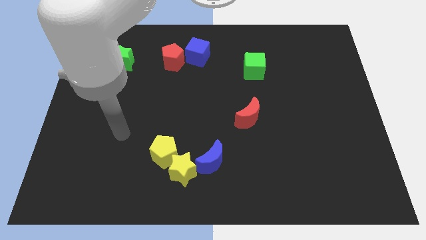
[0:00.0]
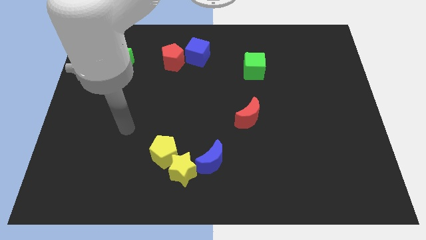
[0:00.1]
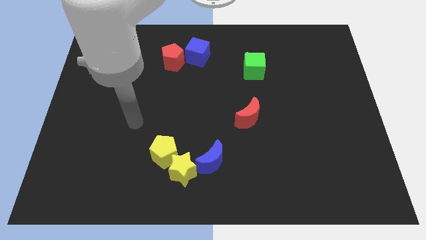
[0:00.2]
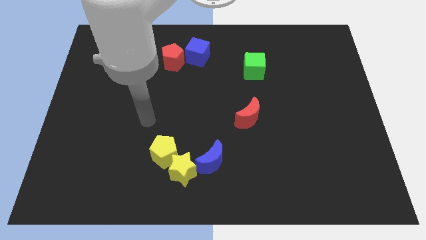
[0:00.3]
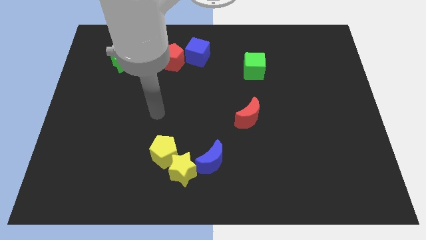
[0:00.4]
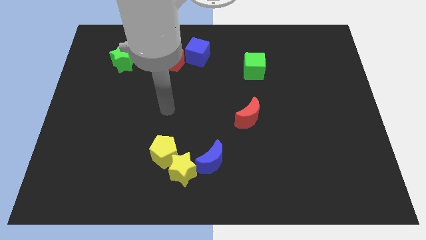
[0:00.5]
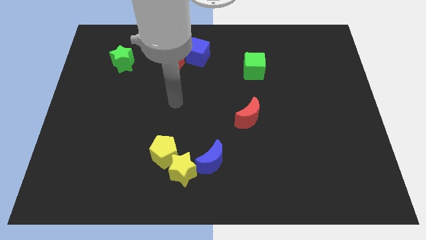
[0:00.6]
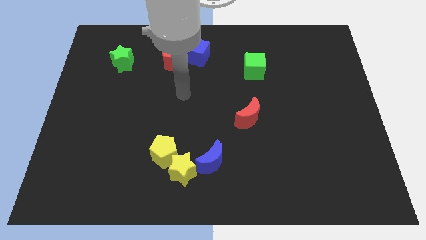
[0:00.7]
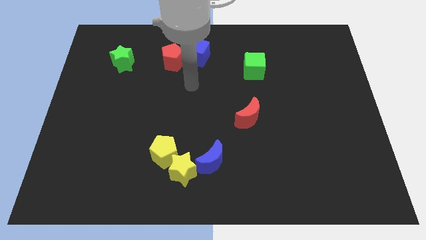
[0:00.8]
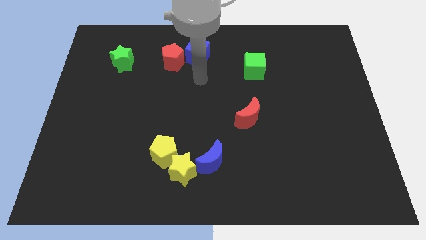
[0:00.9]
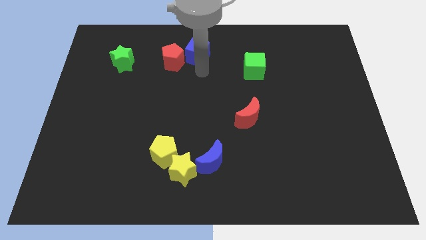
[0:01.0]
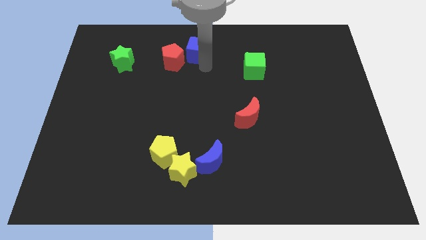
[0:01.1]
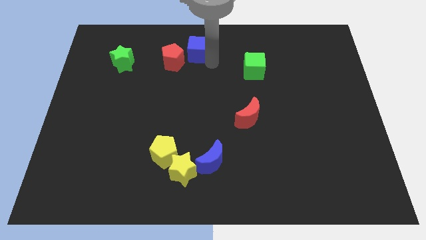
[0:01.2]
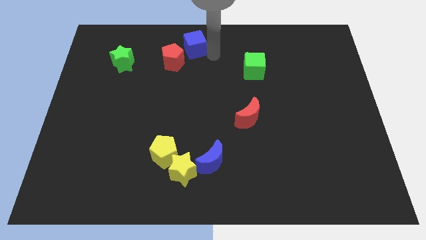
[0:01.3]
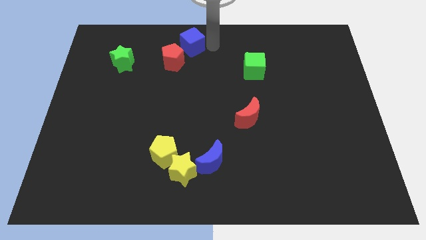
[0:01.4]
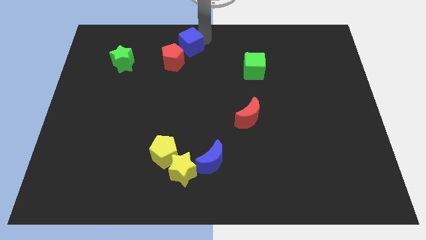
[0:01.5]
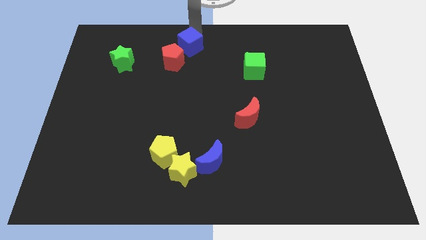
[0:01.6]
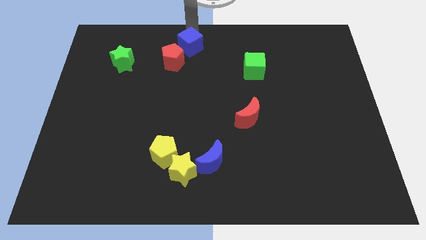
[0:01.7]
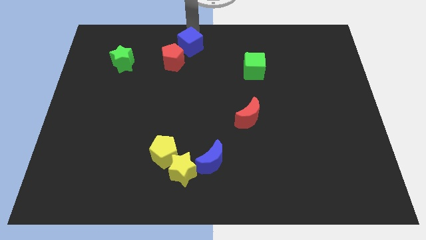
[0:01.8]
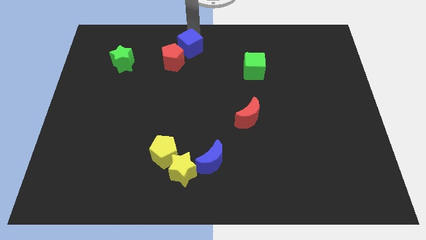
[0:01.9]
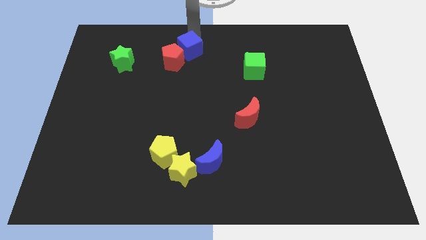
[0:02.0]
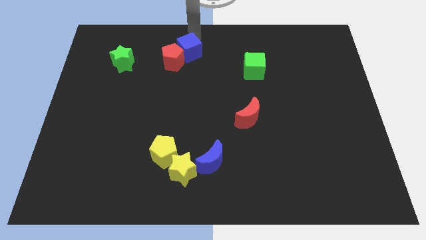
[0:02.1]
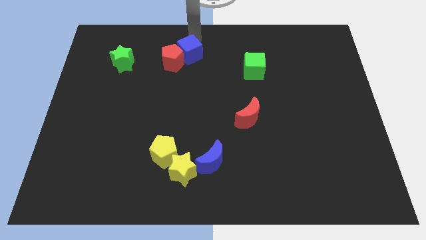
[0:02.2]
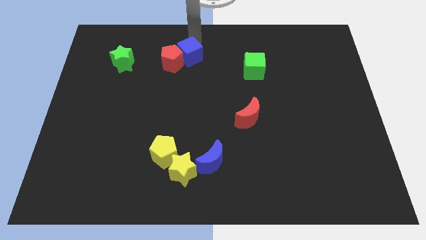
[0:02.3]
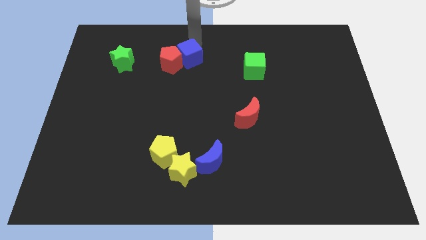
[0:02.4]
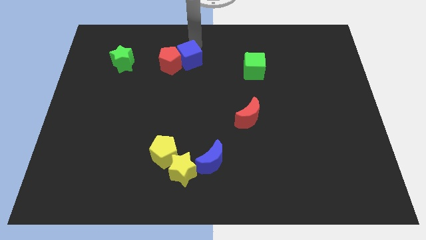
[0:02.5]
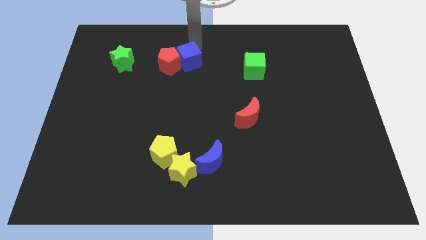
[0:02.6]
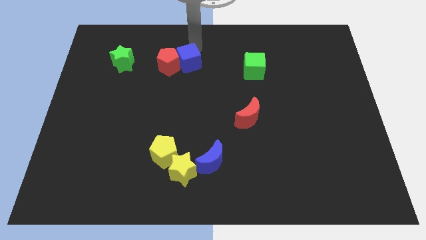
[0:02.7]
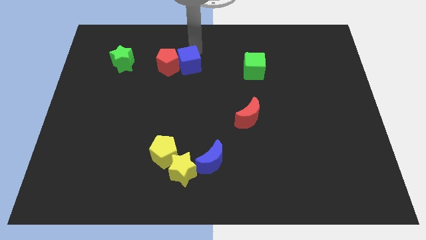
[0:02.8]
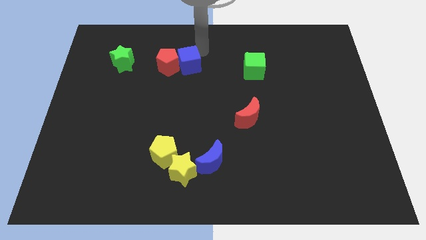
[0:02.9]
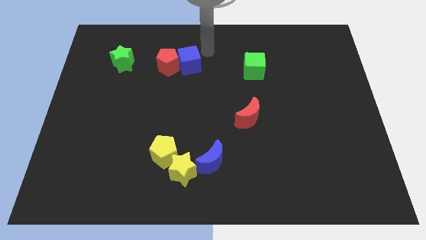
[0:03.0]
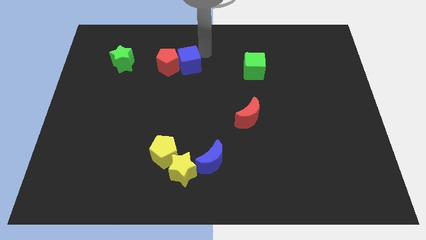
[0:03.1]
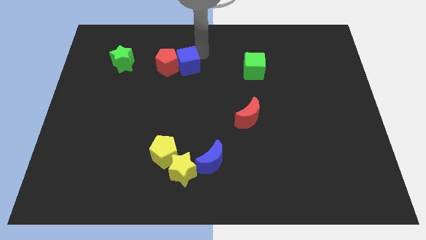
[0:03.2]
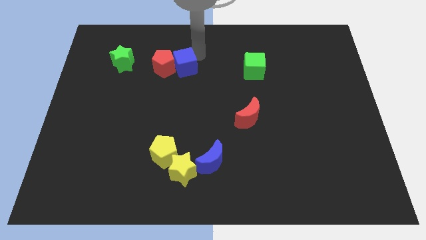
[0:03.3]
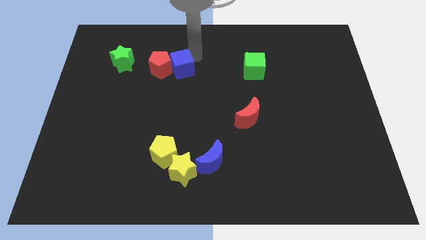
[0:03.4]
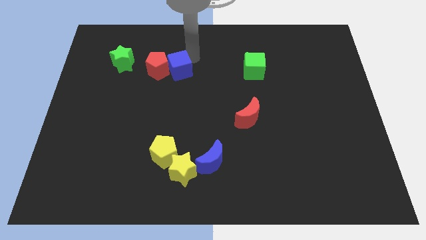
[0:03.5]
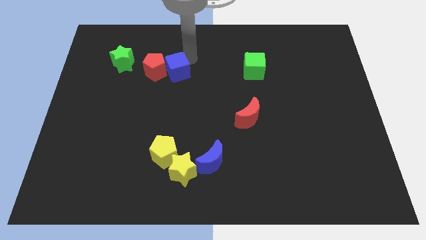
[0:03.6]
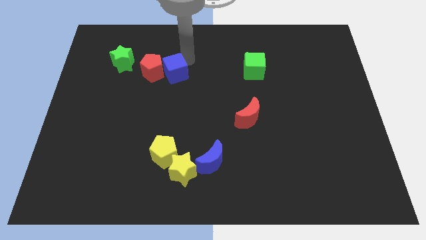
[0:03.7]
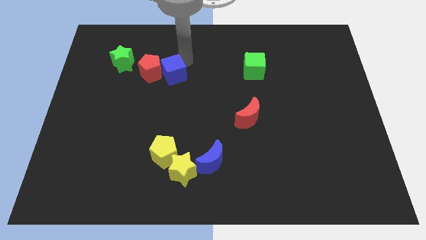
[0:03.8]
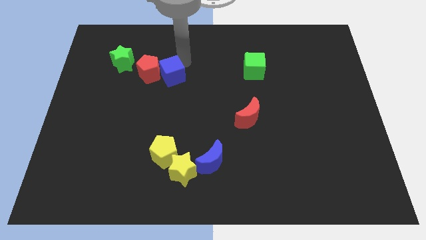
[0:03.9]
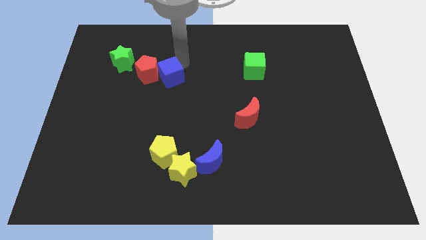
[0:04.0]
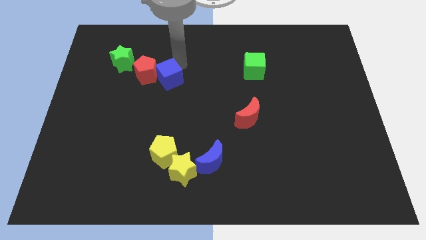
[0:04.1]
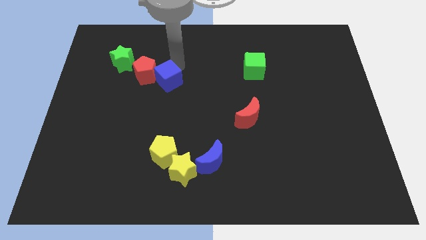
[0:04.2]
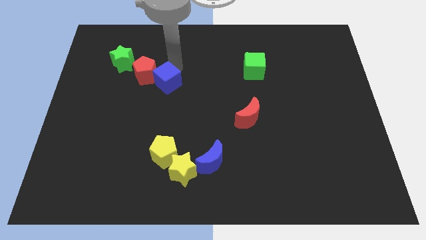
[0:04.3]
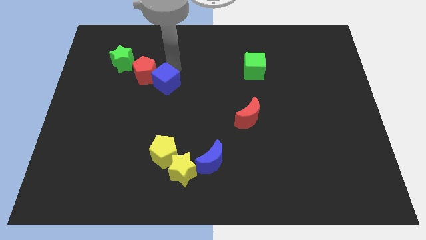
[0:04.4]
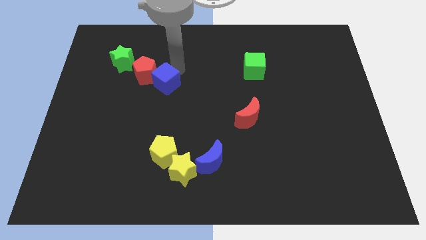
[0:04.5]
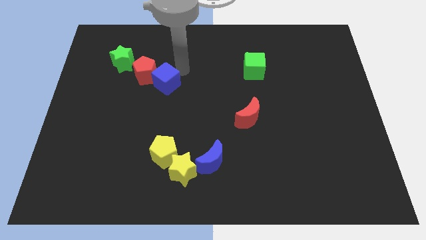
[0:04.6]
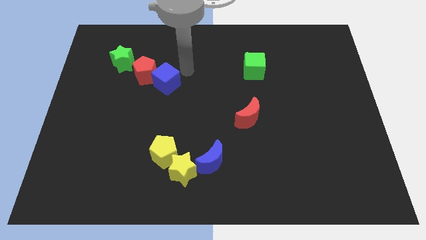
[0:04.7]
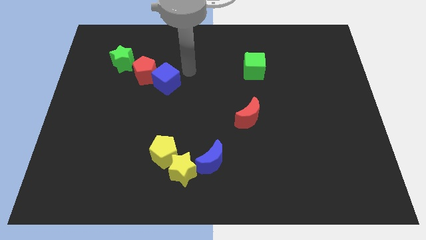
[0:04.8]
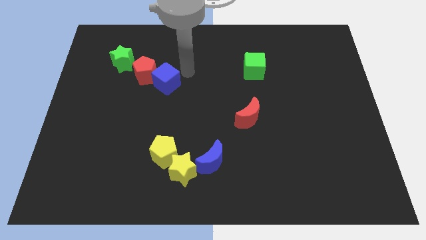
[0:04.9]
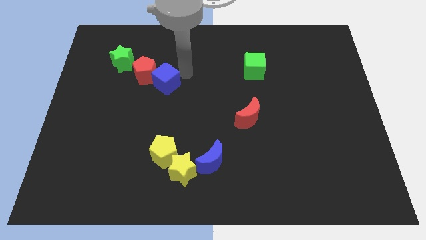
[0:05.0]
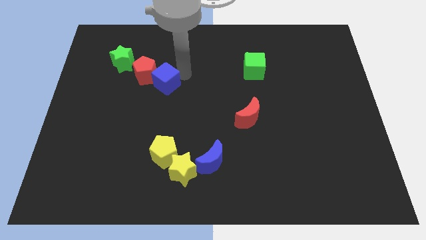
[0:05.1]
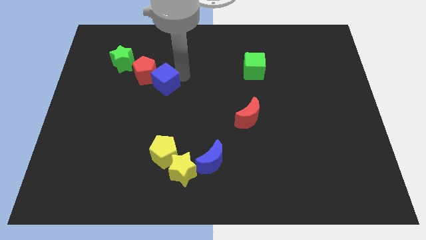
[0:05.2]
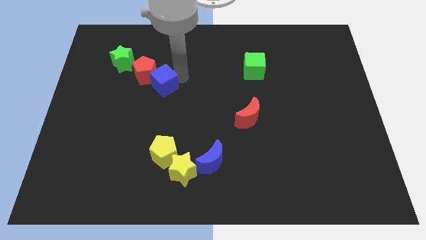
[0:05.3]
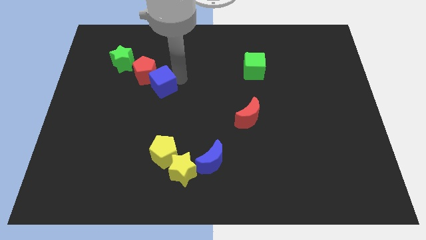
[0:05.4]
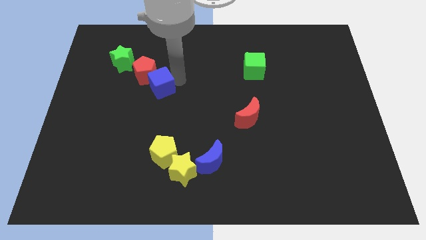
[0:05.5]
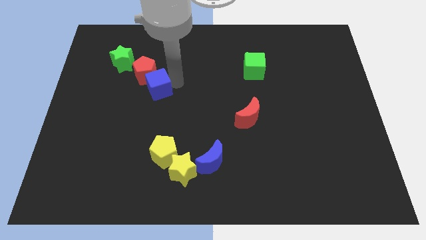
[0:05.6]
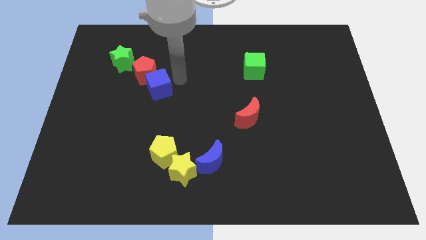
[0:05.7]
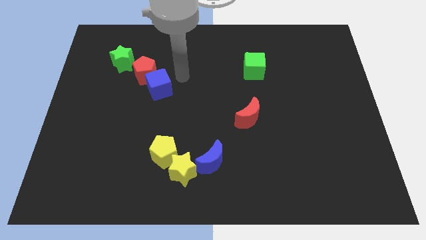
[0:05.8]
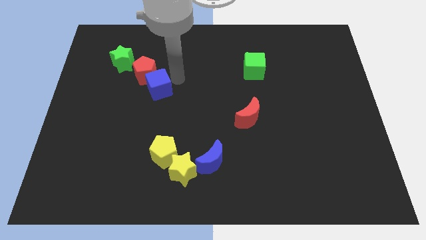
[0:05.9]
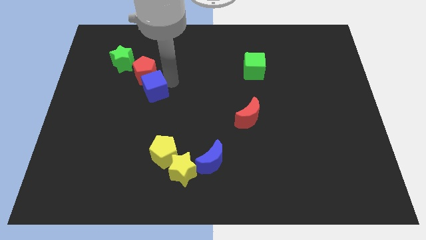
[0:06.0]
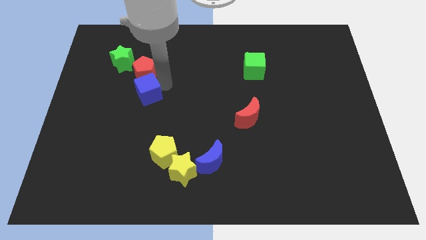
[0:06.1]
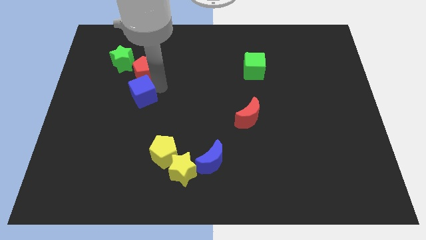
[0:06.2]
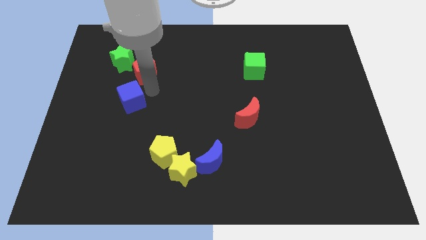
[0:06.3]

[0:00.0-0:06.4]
move the blue cube down and to the left diagonally

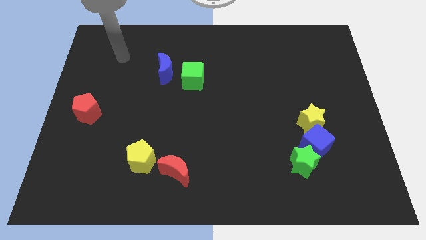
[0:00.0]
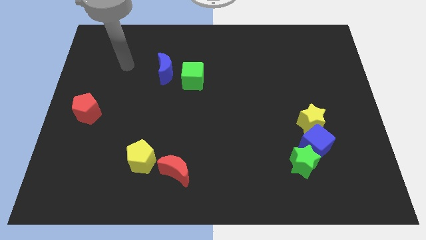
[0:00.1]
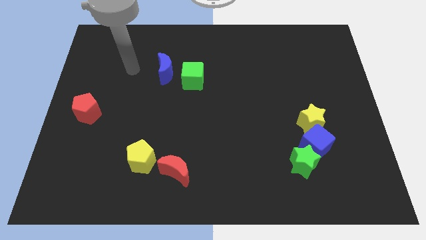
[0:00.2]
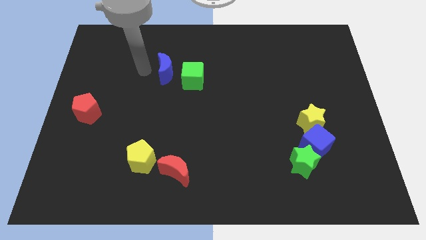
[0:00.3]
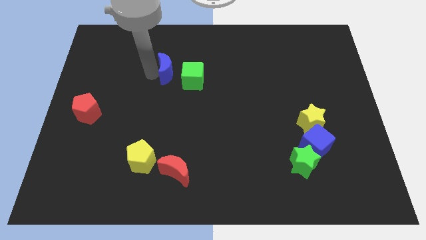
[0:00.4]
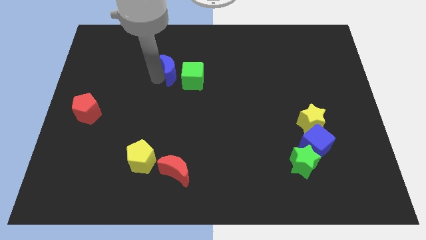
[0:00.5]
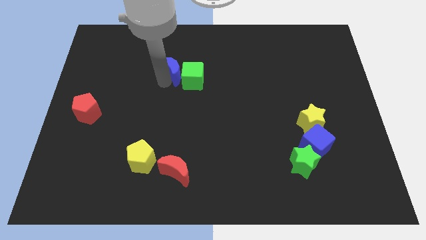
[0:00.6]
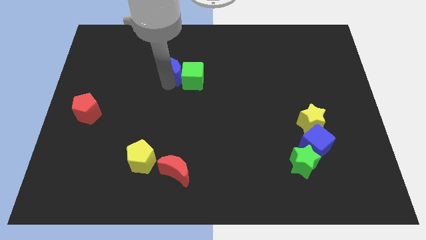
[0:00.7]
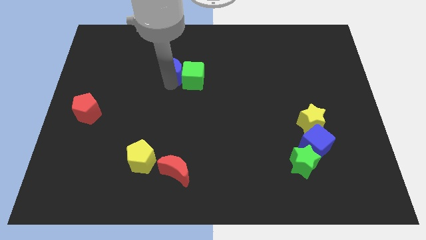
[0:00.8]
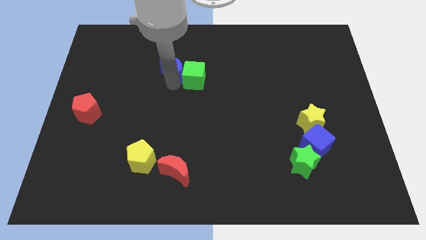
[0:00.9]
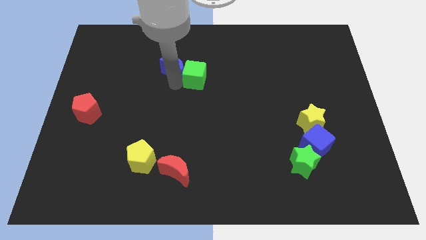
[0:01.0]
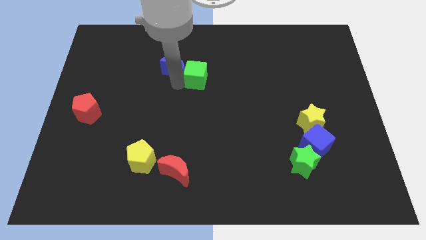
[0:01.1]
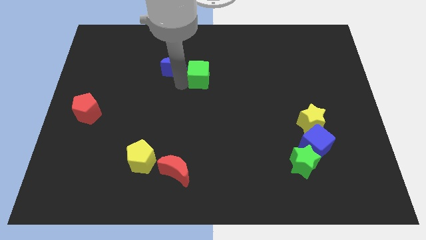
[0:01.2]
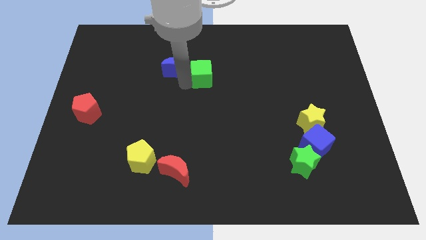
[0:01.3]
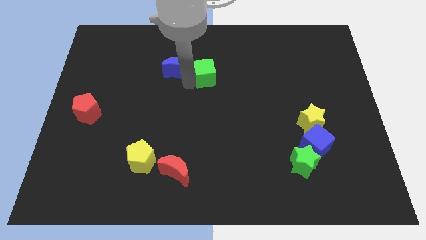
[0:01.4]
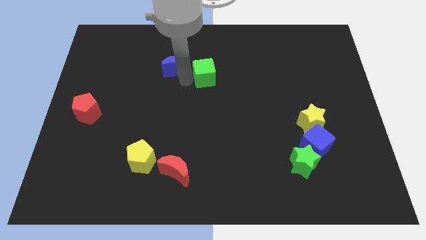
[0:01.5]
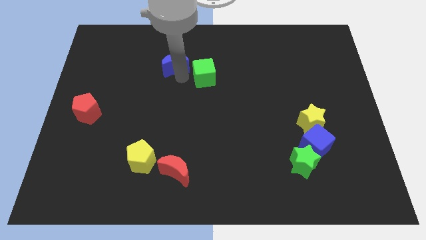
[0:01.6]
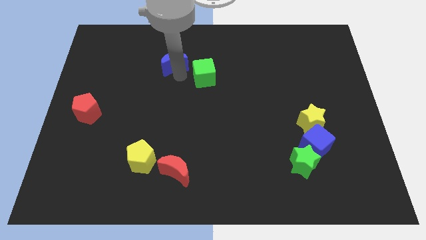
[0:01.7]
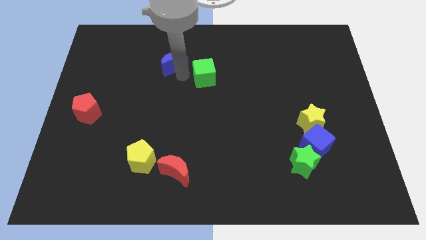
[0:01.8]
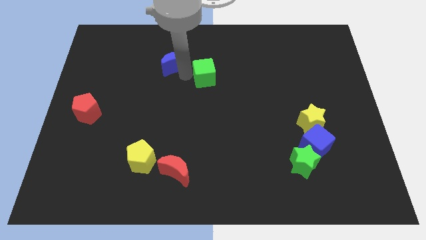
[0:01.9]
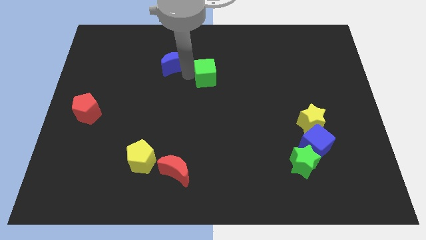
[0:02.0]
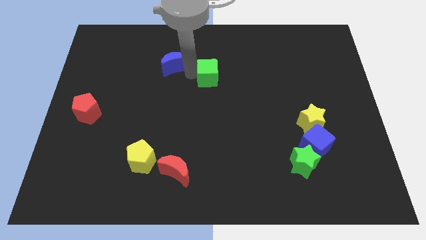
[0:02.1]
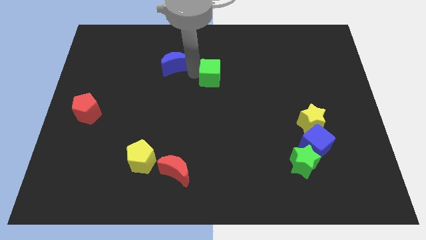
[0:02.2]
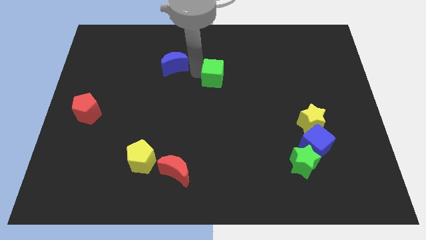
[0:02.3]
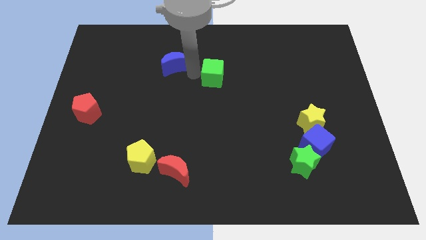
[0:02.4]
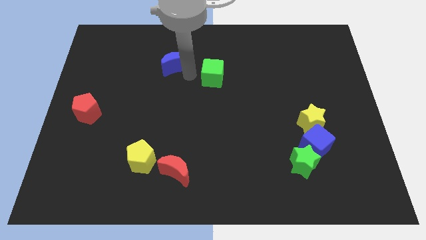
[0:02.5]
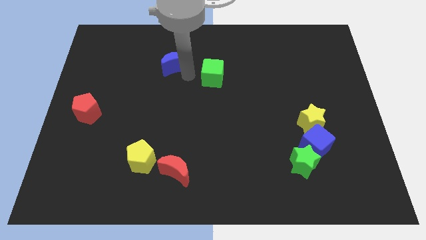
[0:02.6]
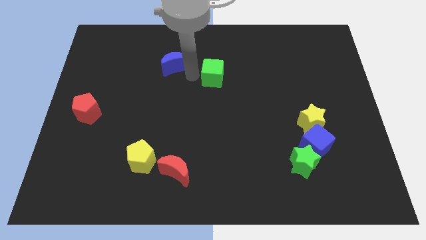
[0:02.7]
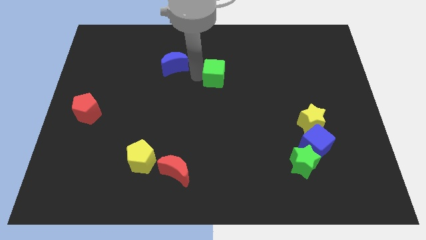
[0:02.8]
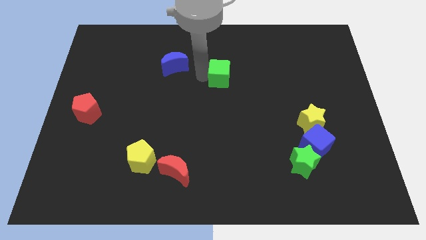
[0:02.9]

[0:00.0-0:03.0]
slide the green cube to the right a little
